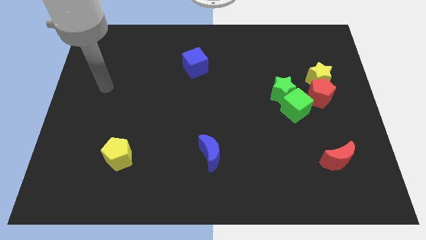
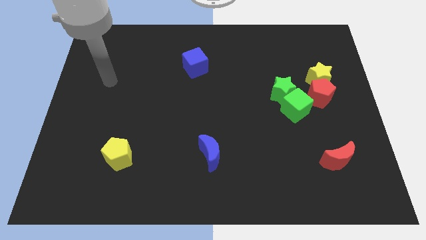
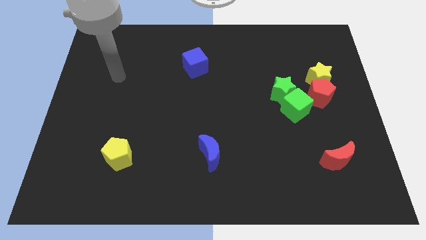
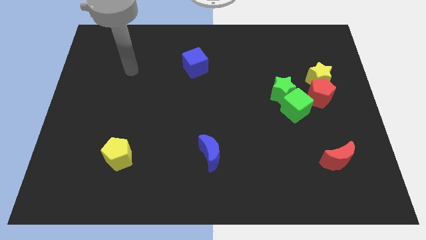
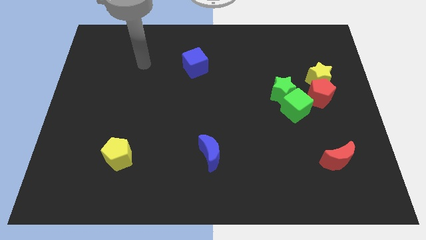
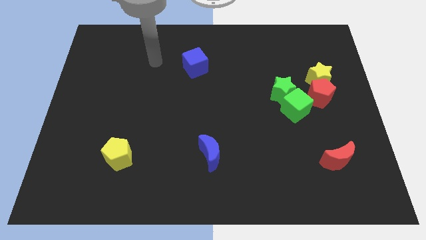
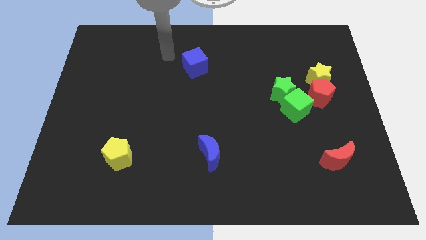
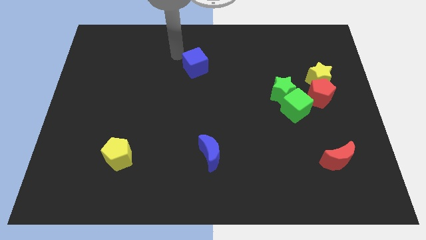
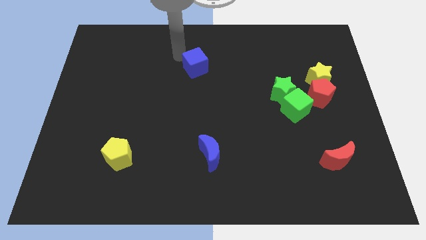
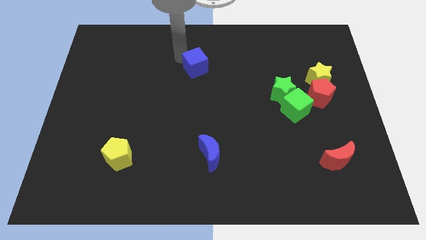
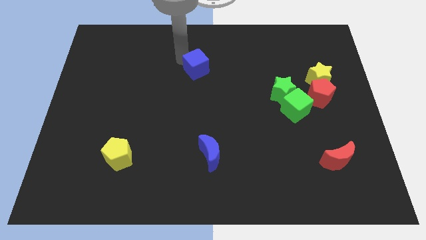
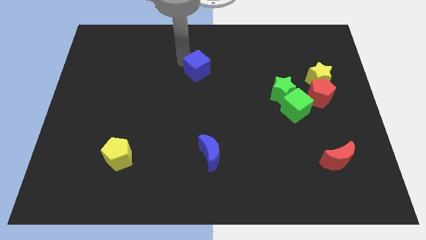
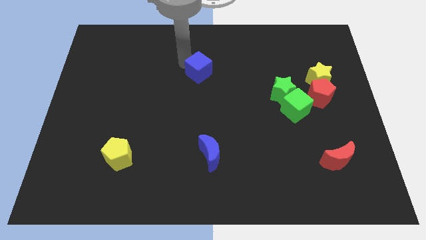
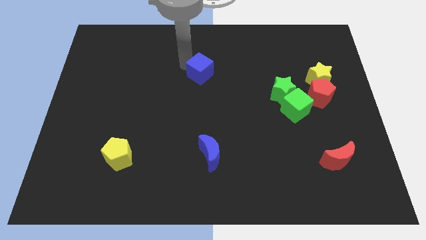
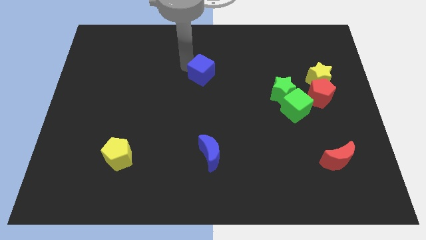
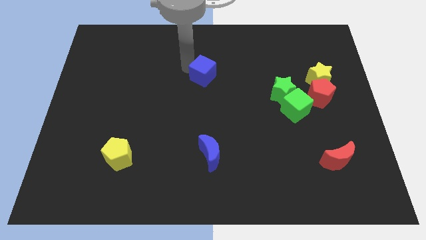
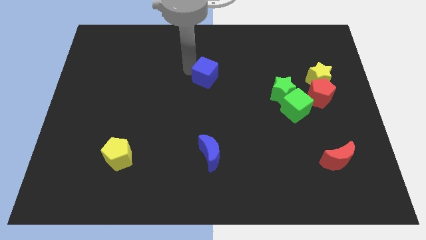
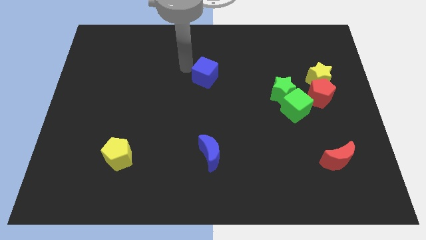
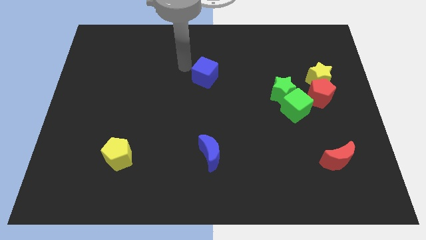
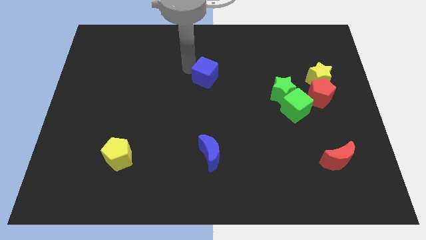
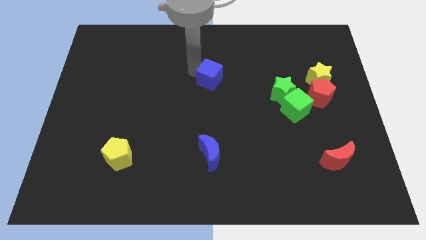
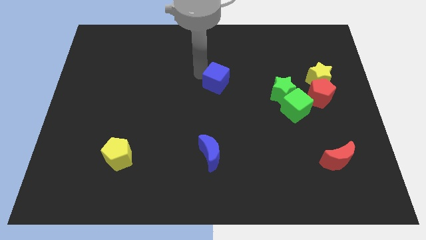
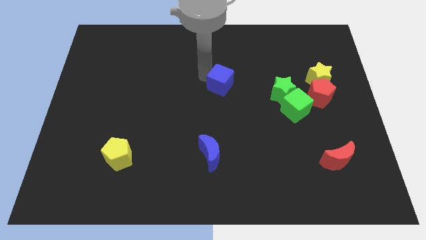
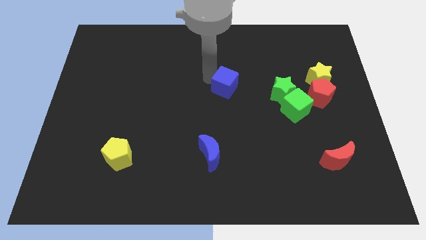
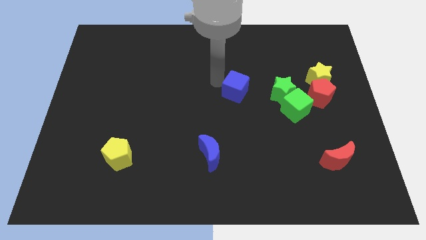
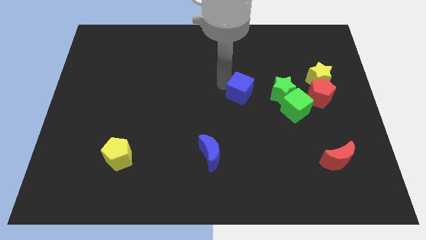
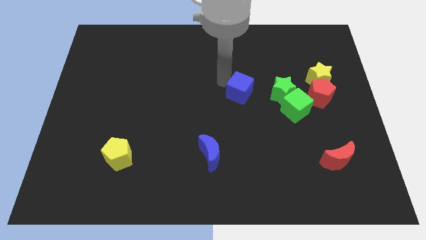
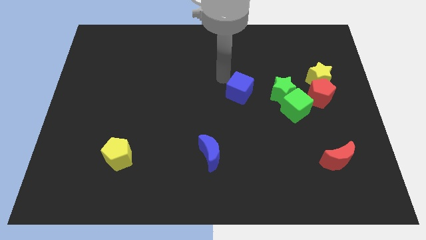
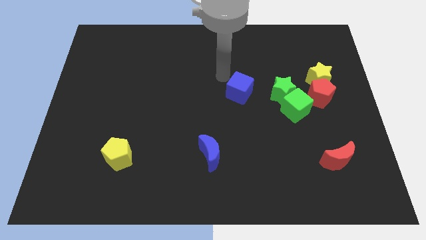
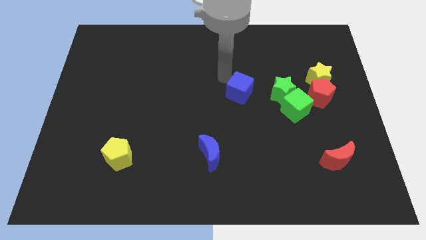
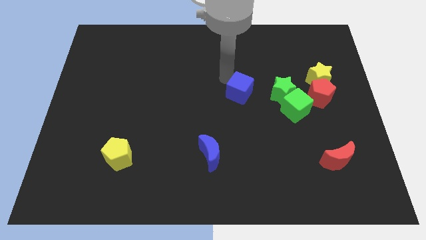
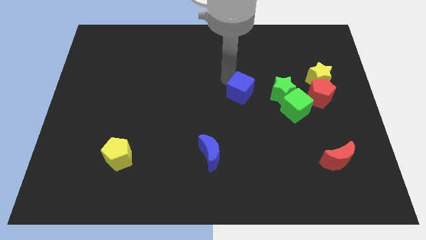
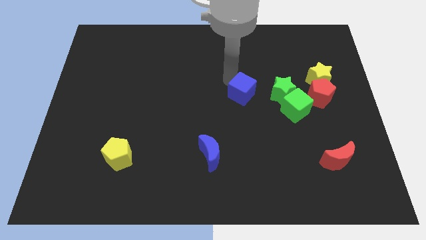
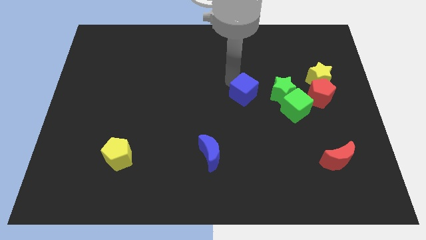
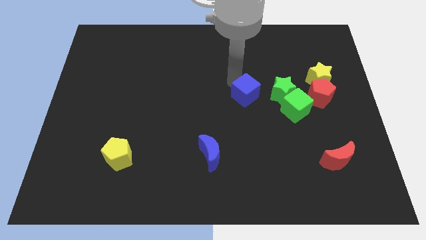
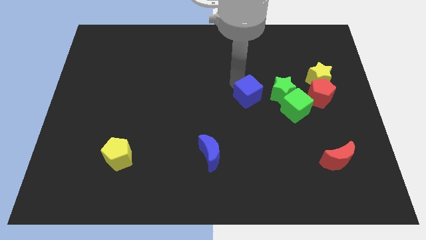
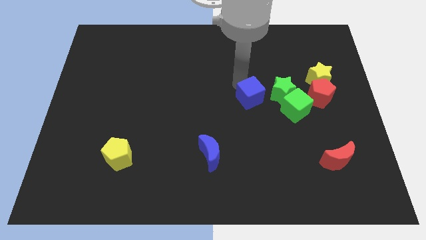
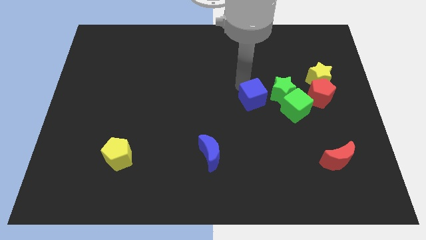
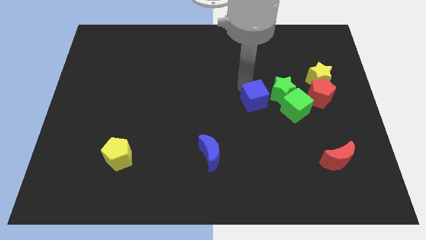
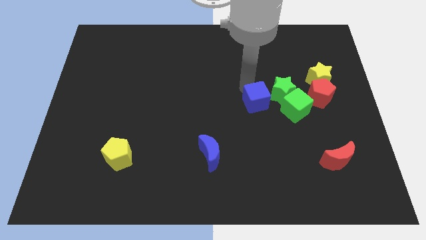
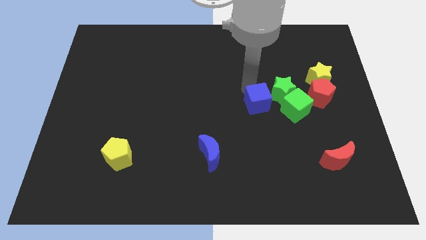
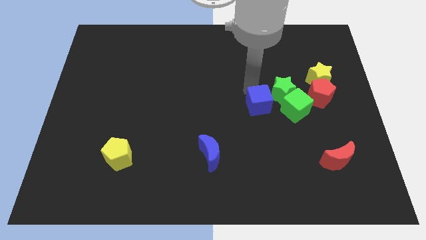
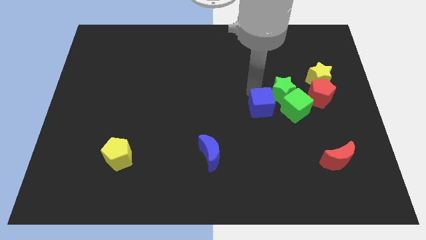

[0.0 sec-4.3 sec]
slide the blue cube downwards and to the right diagonally

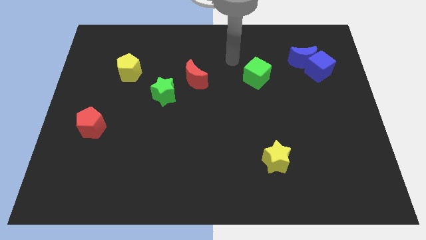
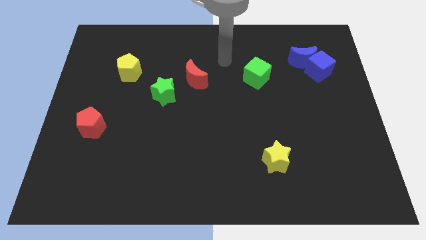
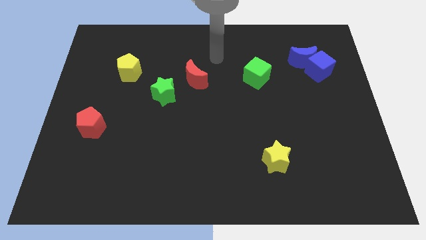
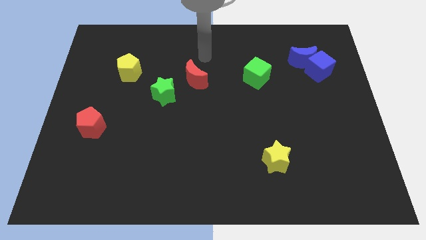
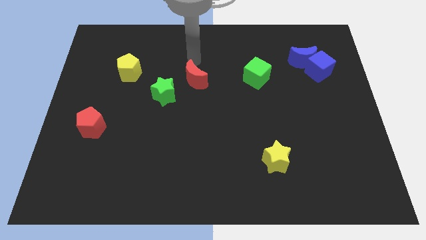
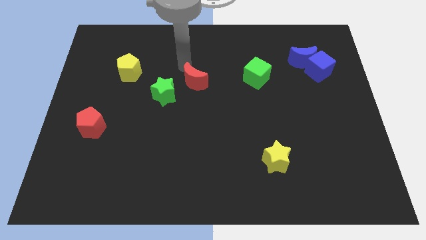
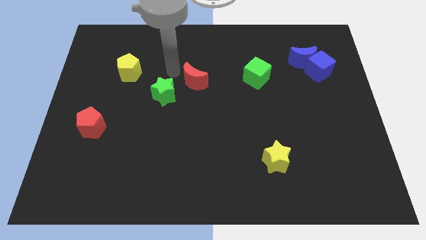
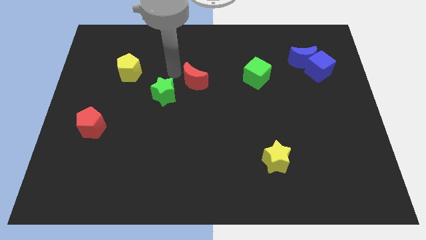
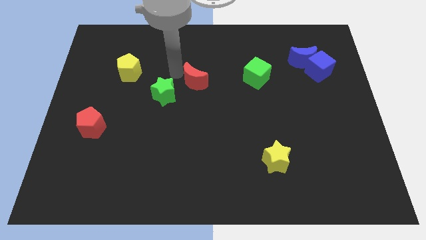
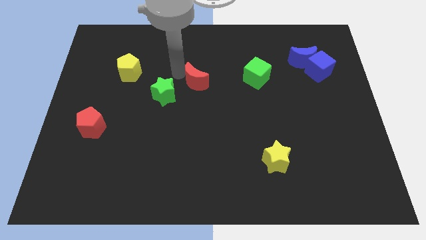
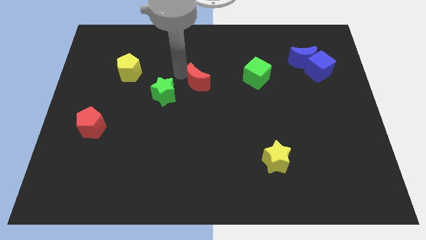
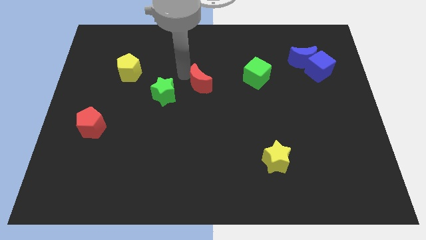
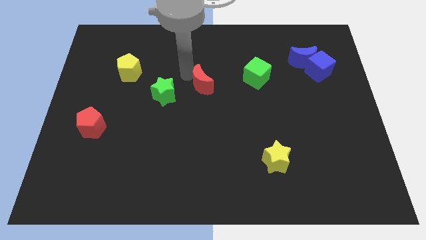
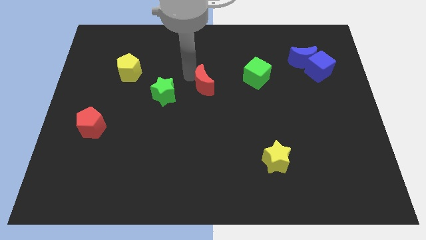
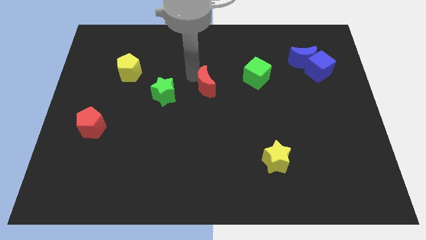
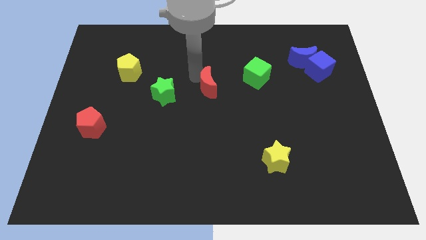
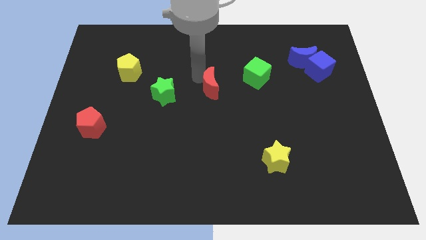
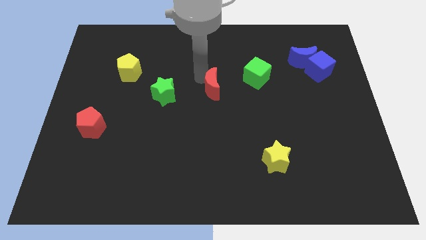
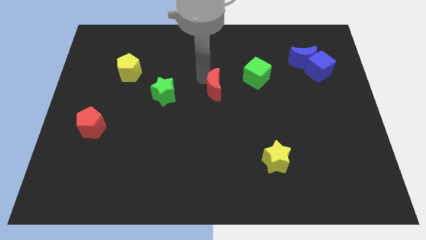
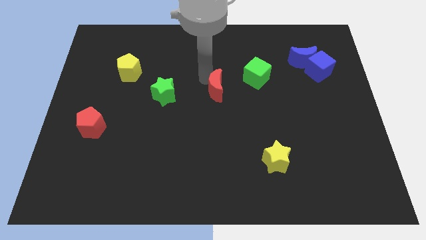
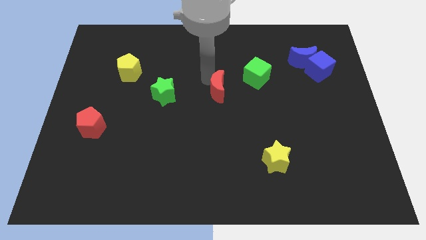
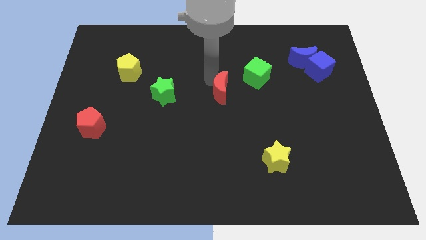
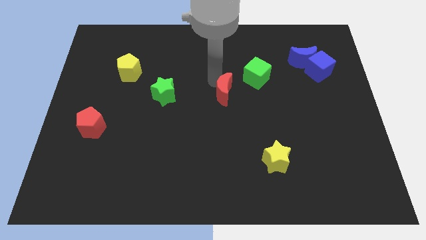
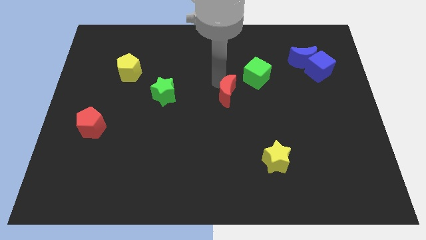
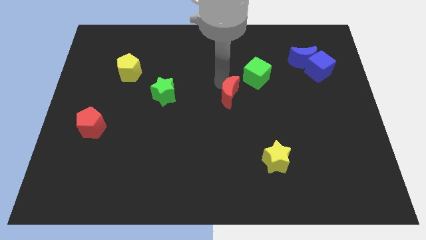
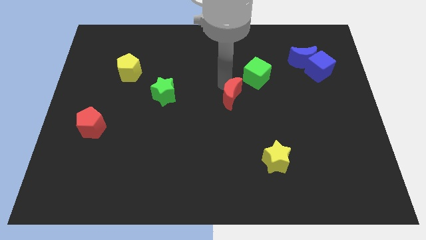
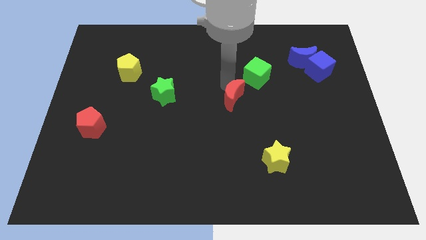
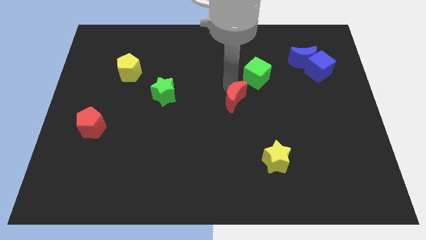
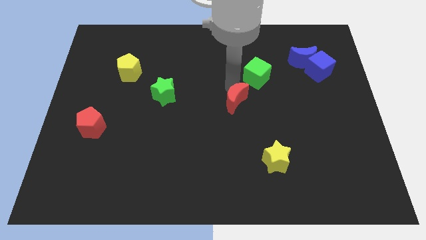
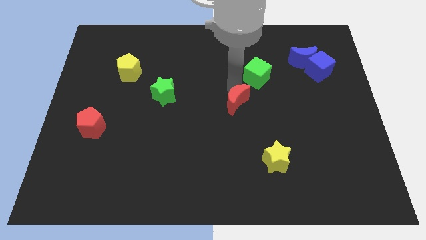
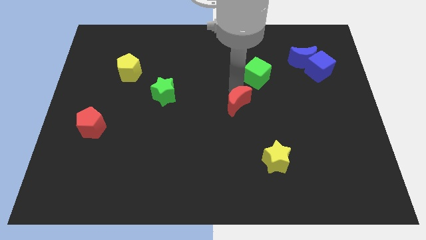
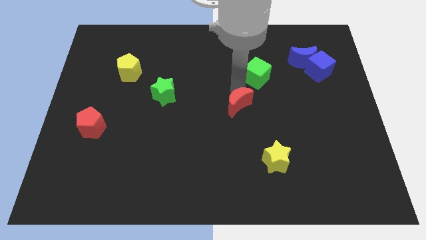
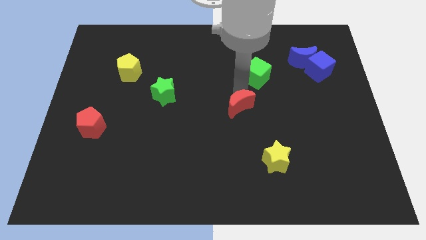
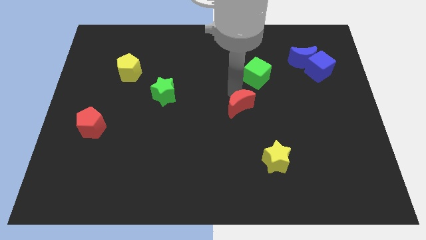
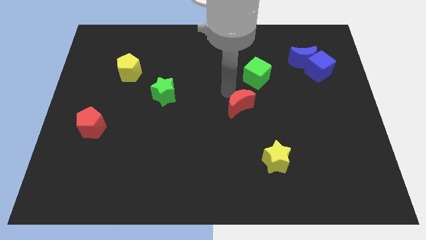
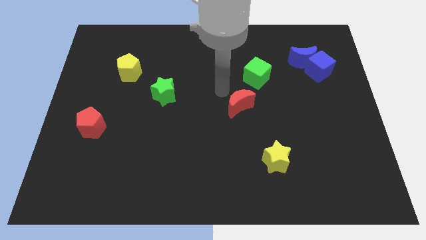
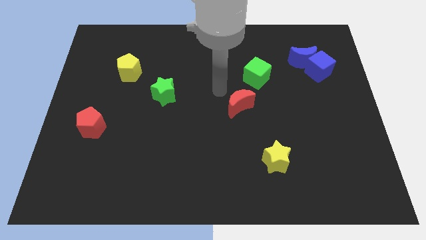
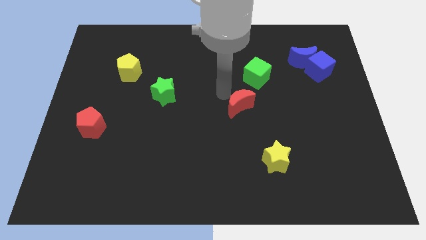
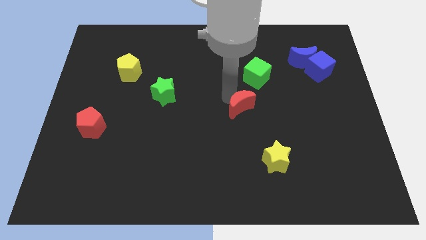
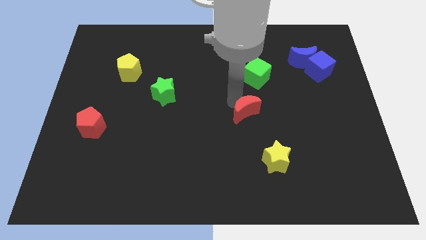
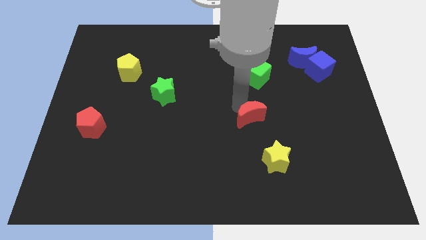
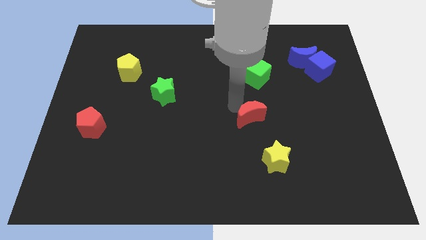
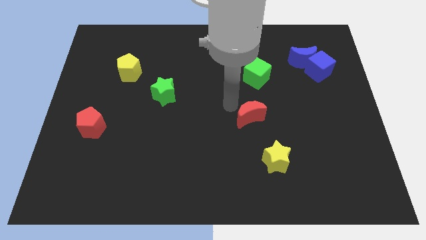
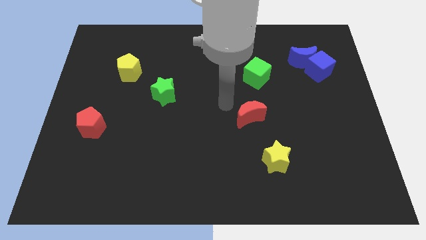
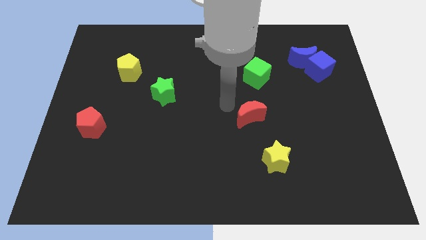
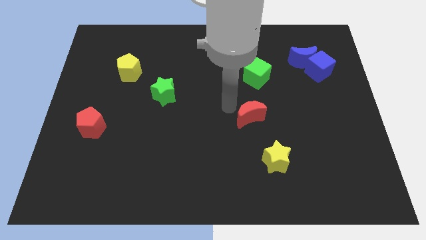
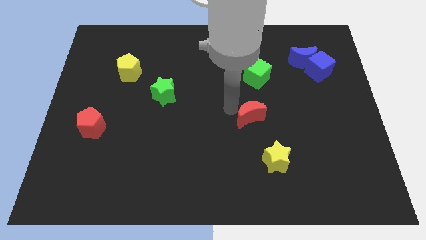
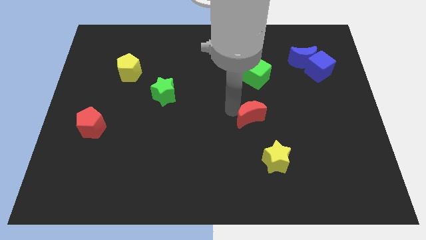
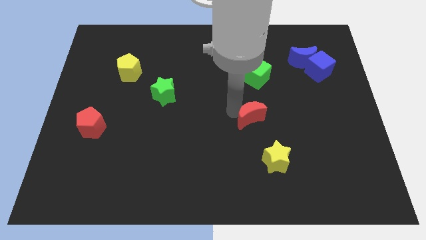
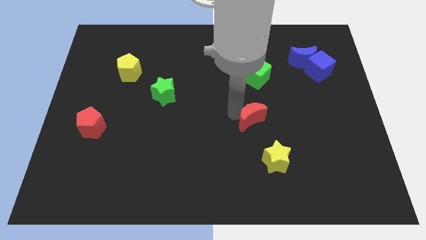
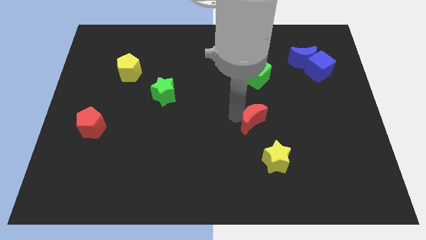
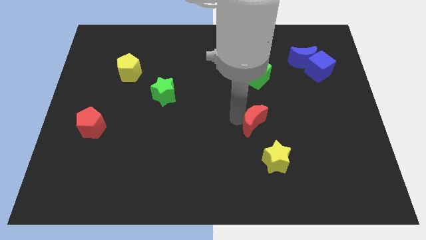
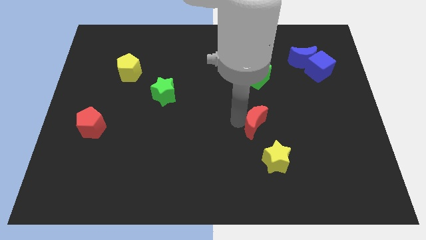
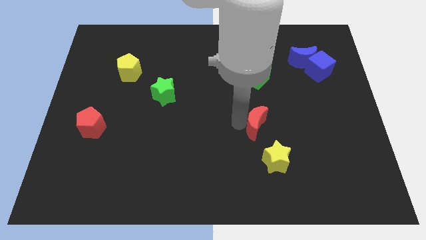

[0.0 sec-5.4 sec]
move the red moon downwards and then to the right
